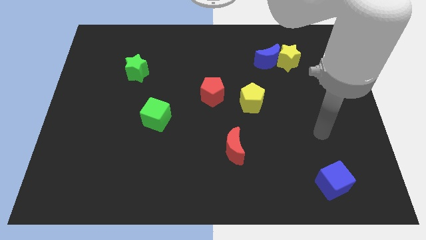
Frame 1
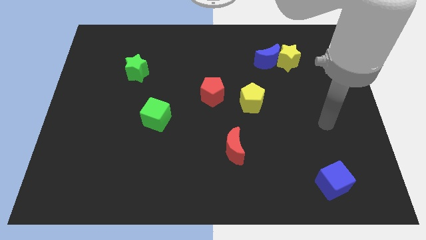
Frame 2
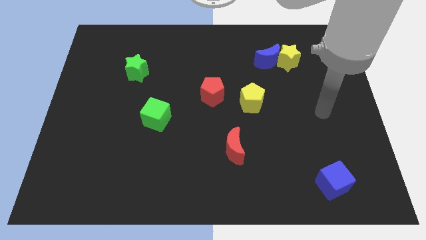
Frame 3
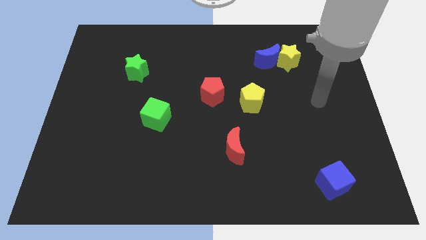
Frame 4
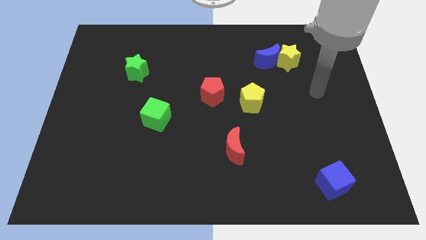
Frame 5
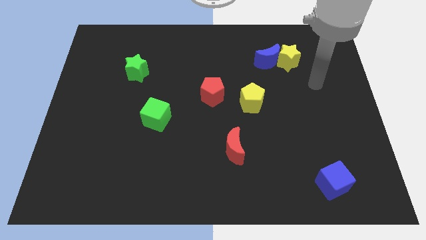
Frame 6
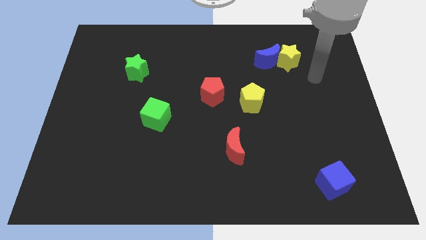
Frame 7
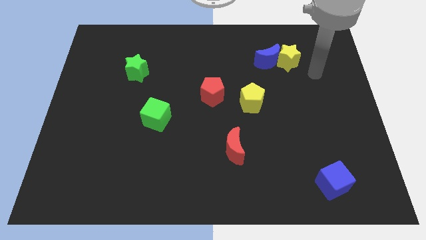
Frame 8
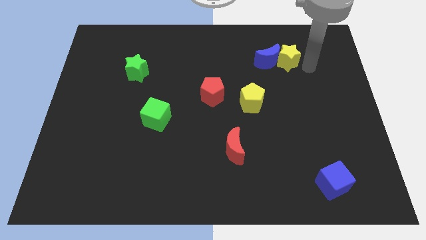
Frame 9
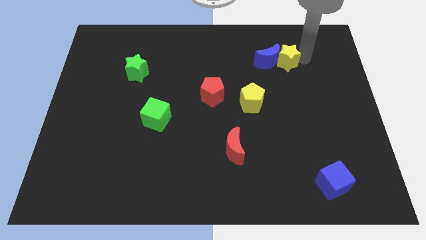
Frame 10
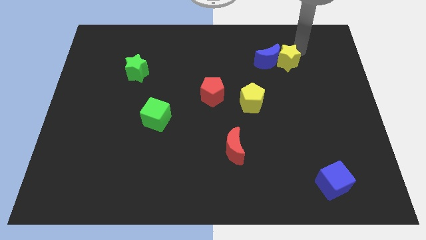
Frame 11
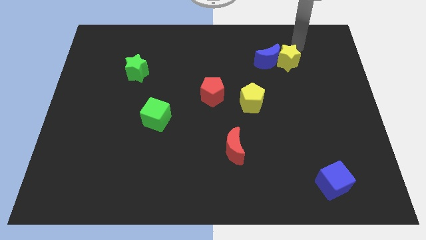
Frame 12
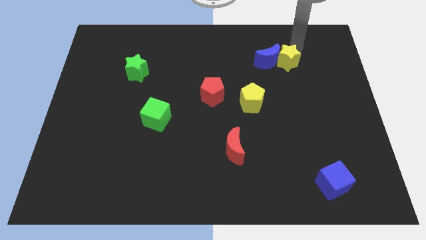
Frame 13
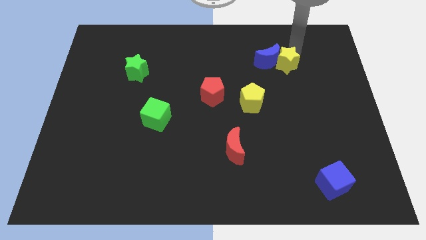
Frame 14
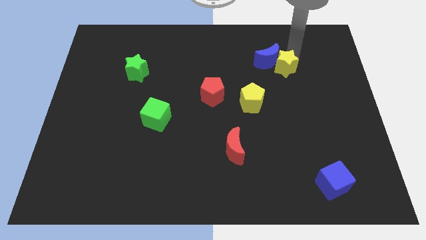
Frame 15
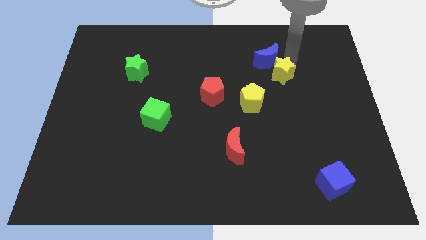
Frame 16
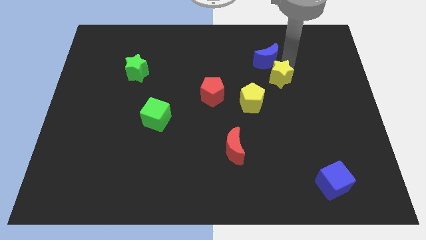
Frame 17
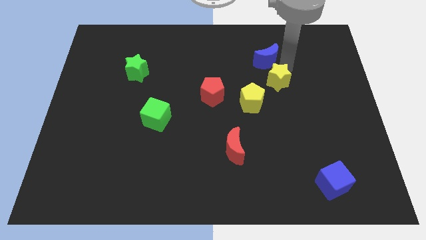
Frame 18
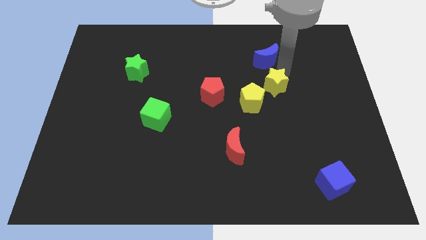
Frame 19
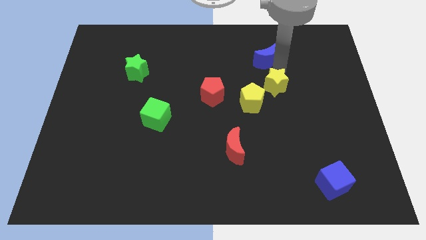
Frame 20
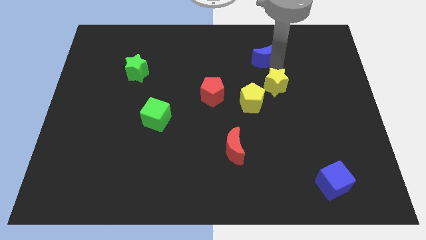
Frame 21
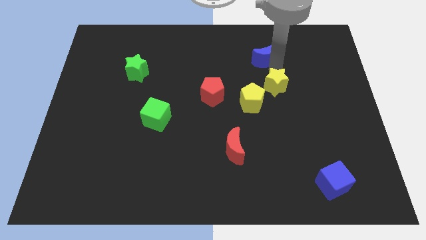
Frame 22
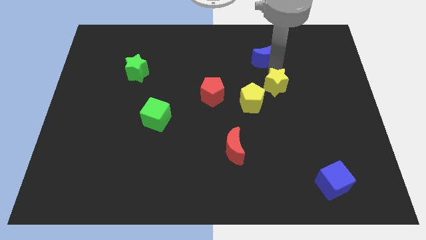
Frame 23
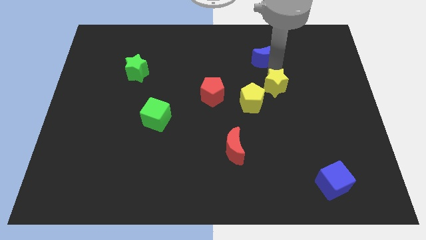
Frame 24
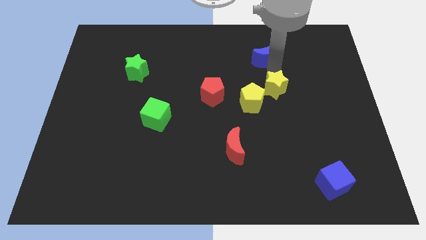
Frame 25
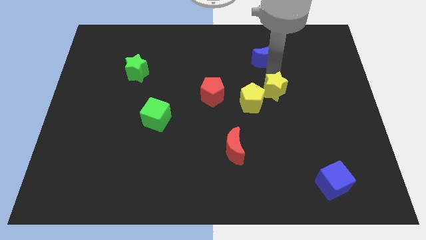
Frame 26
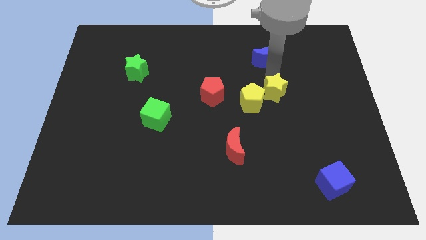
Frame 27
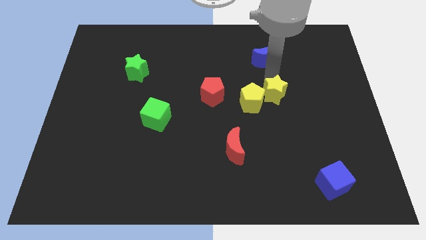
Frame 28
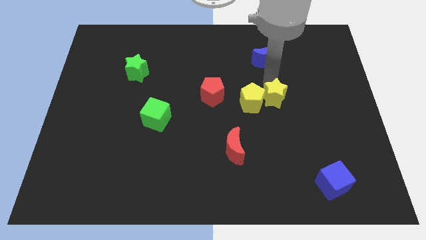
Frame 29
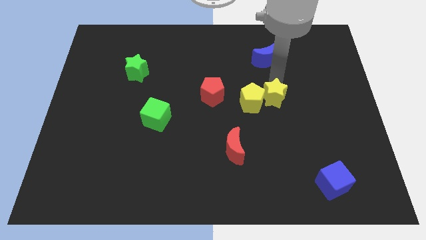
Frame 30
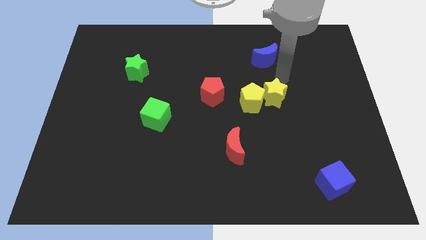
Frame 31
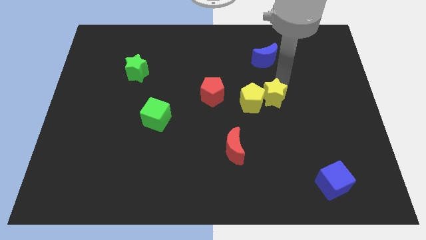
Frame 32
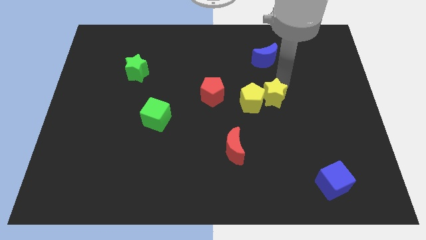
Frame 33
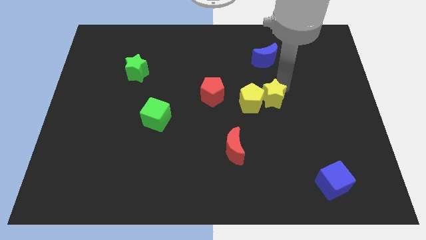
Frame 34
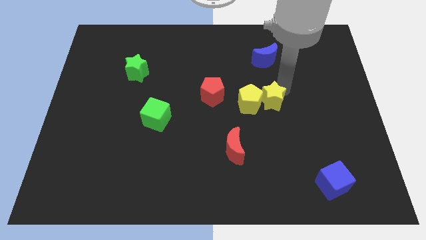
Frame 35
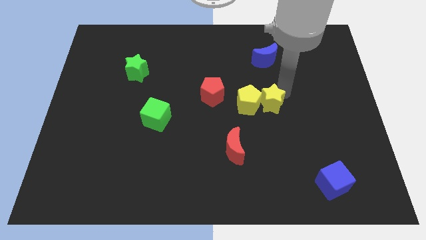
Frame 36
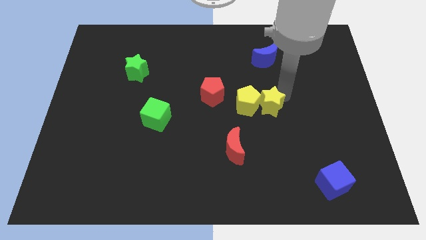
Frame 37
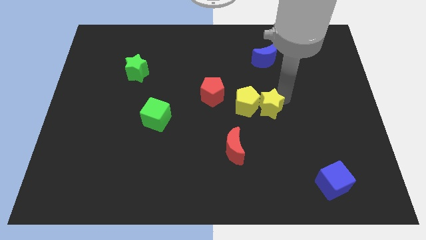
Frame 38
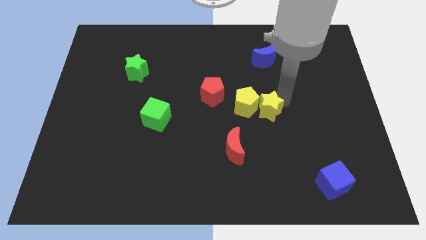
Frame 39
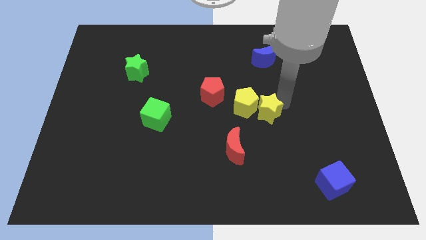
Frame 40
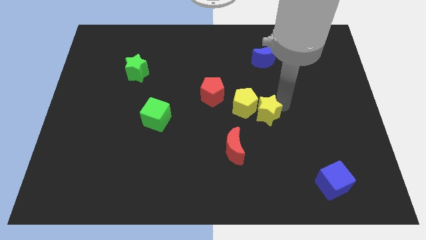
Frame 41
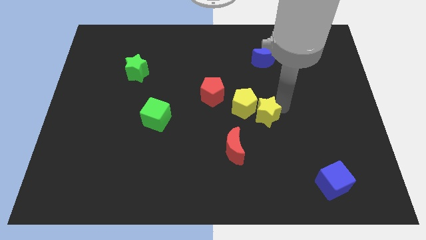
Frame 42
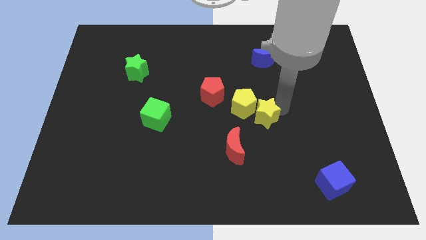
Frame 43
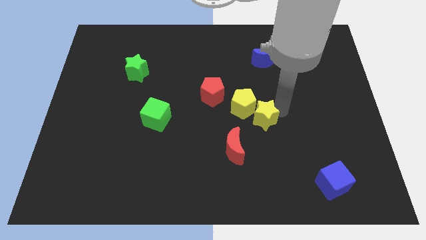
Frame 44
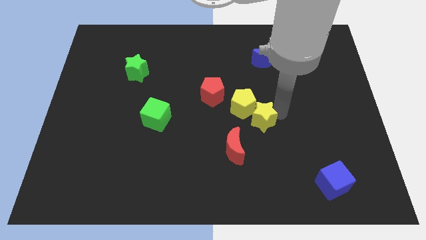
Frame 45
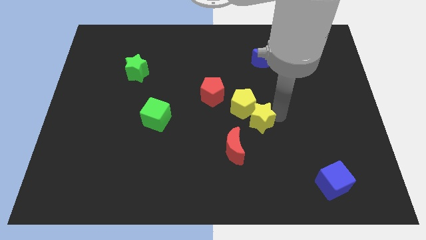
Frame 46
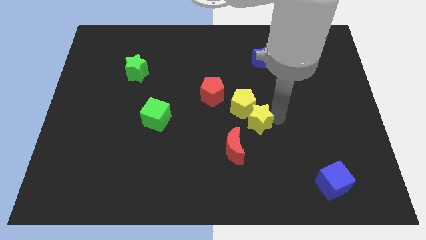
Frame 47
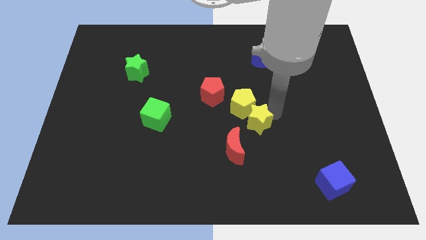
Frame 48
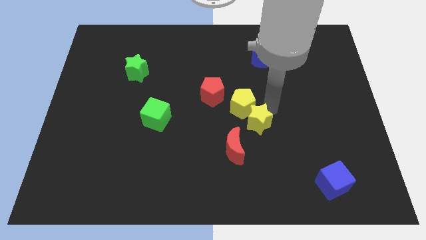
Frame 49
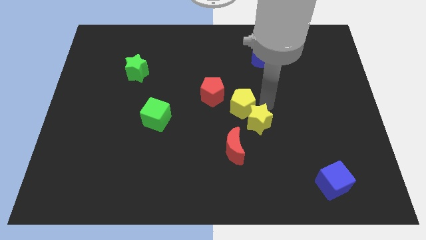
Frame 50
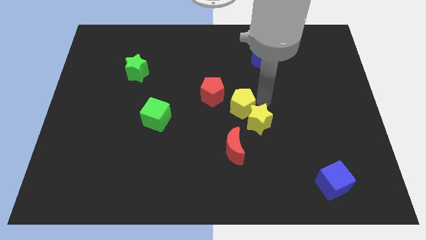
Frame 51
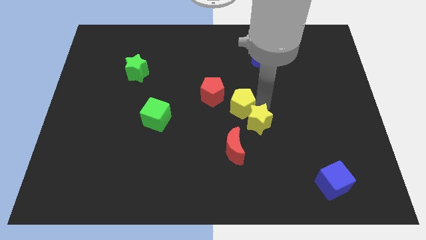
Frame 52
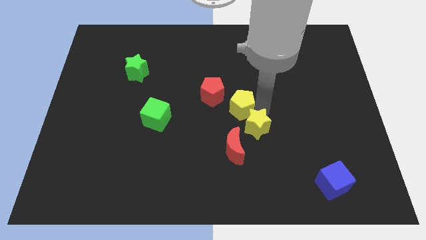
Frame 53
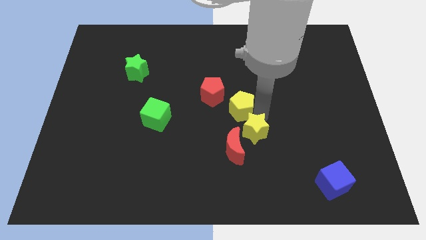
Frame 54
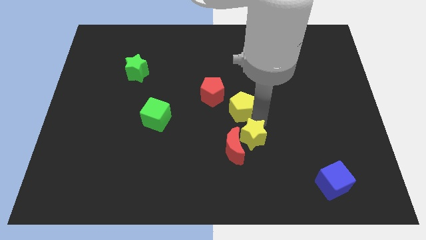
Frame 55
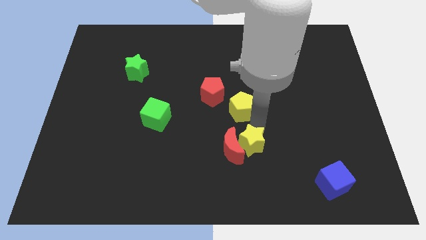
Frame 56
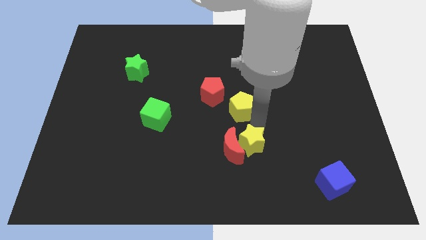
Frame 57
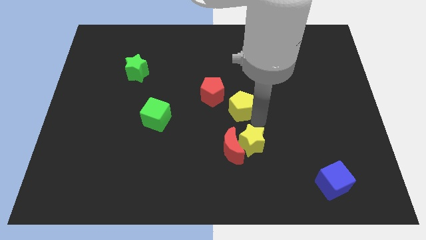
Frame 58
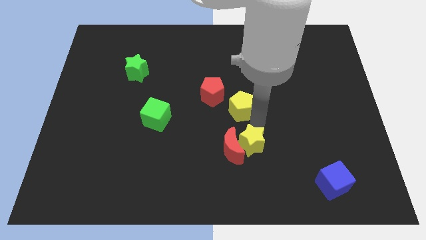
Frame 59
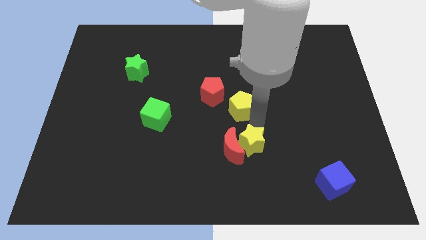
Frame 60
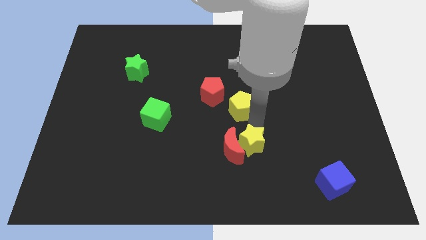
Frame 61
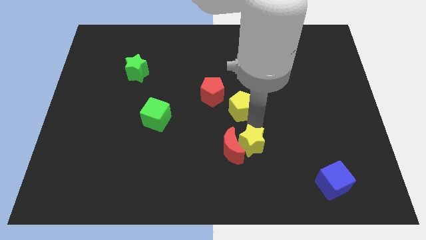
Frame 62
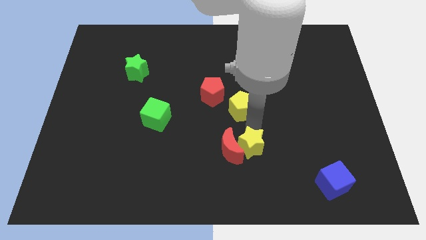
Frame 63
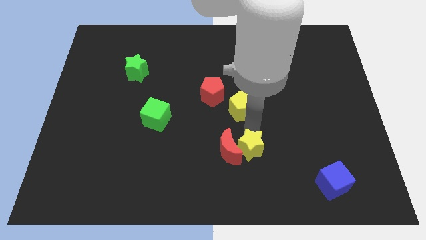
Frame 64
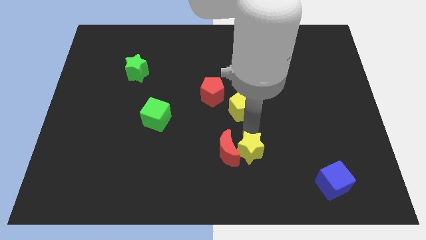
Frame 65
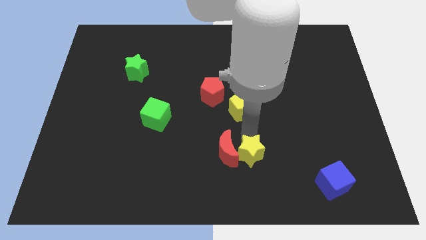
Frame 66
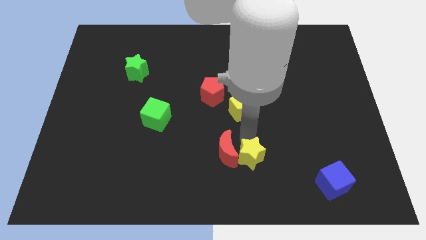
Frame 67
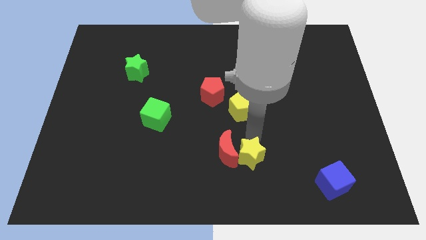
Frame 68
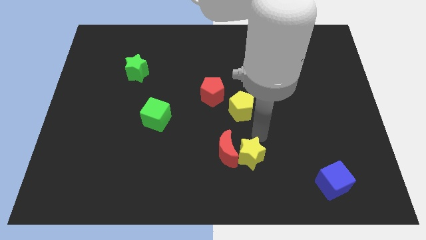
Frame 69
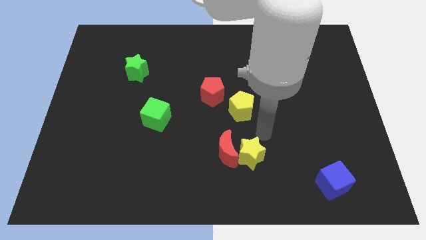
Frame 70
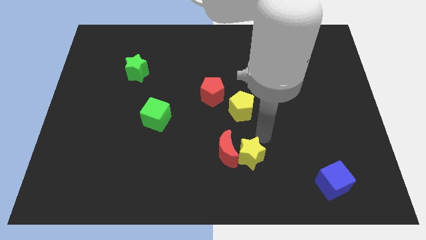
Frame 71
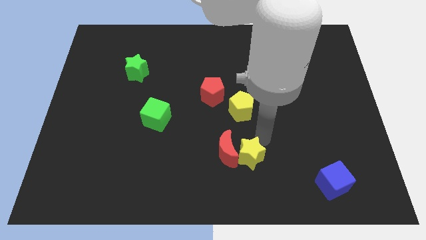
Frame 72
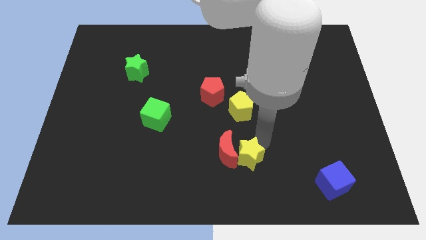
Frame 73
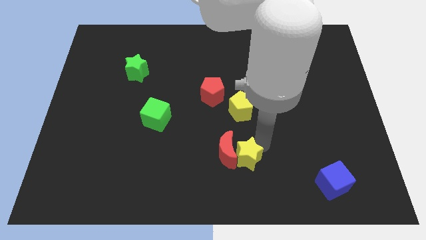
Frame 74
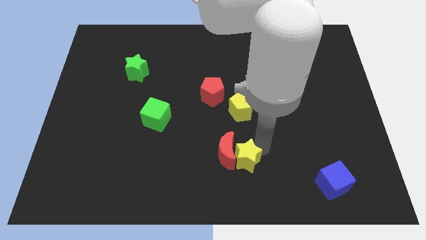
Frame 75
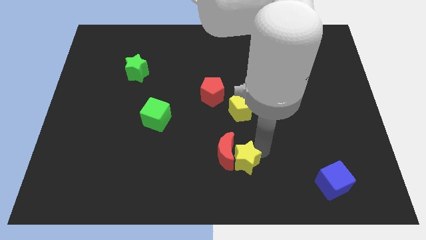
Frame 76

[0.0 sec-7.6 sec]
move the yellow star to the bottom side
